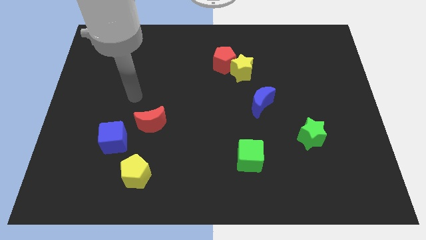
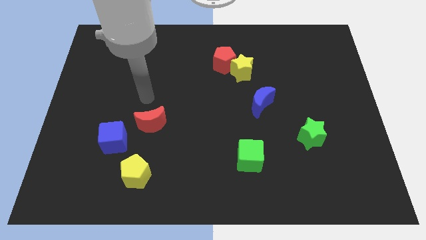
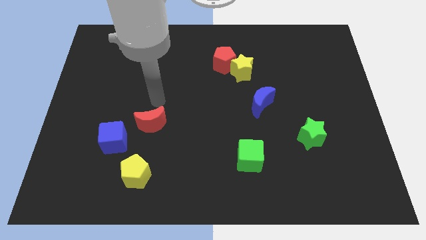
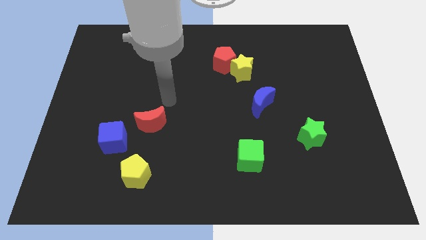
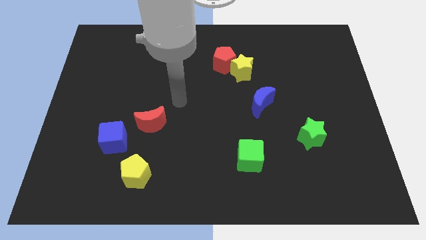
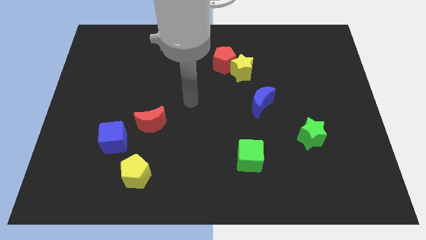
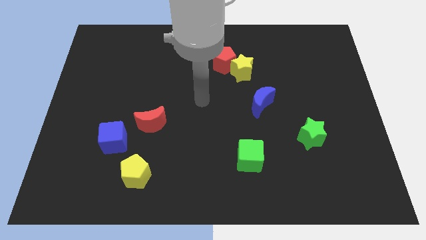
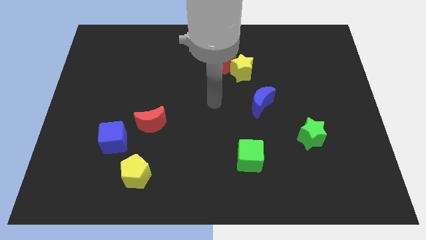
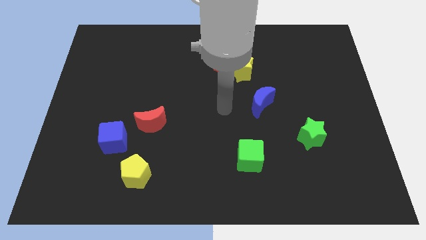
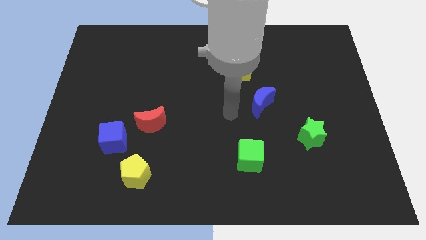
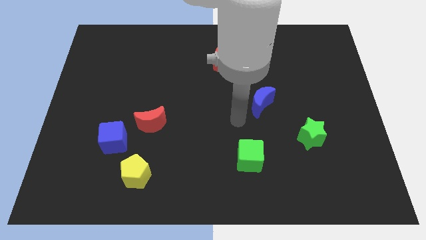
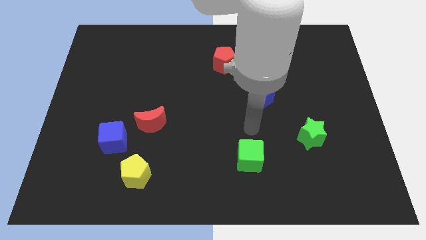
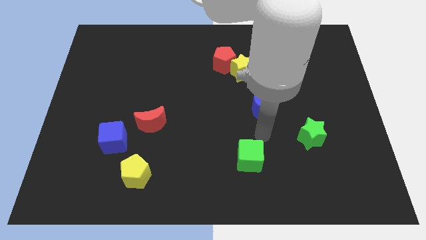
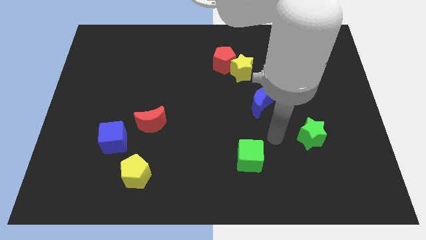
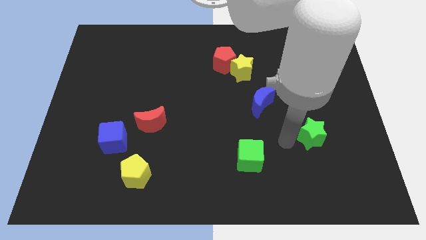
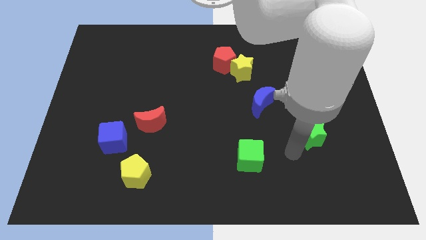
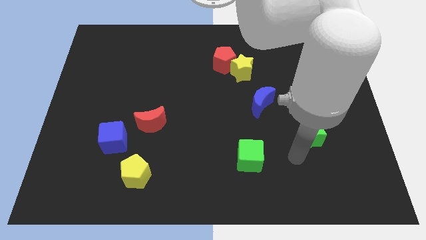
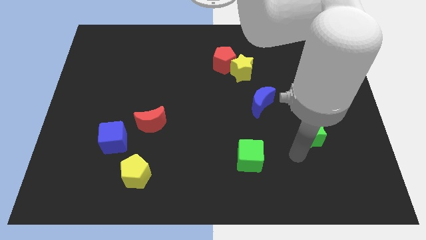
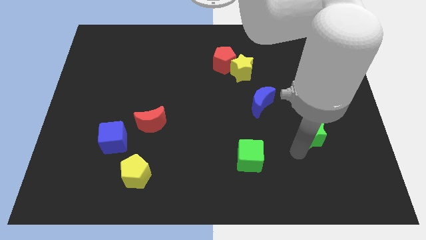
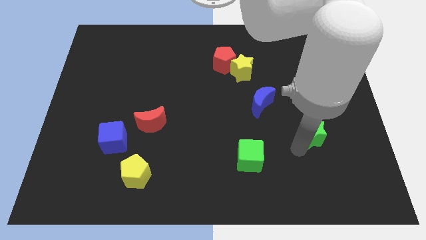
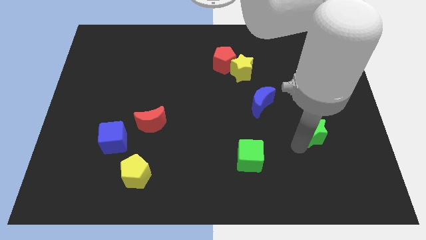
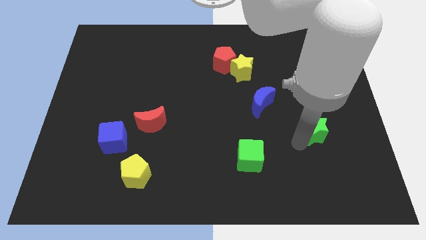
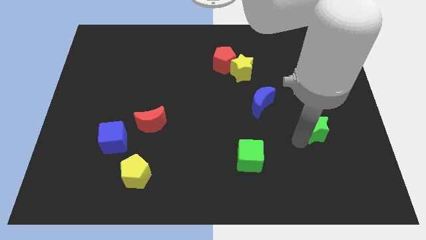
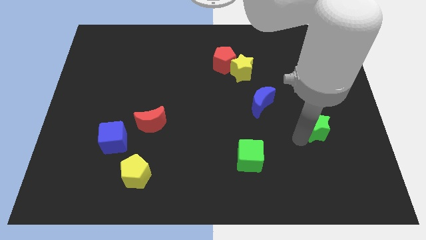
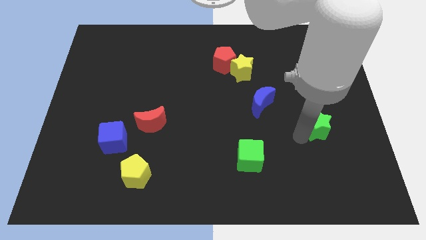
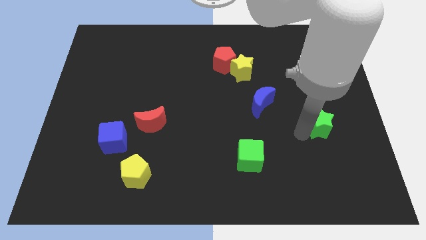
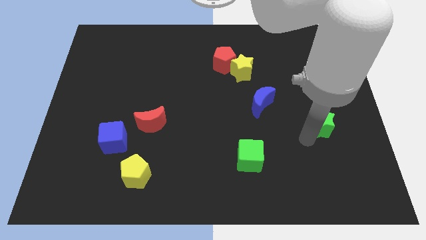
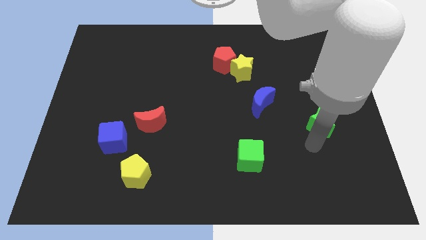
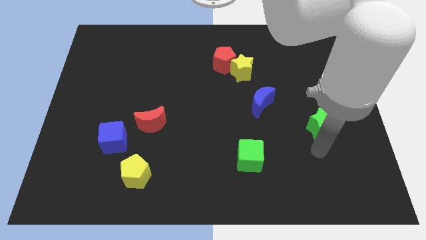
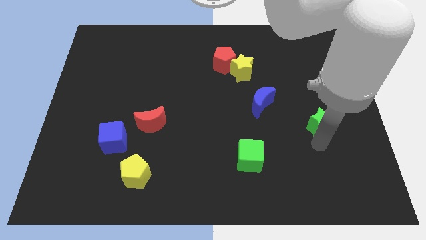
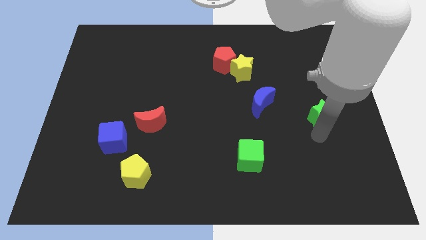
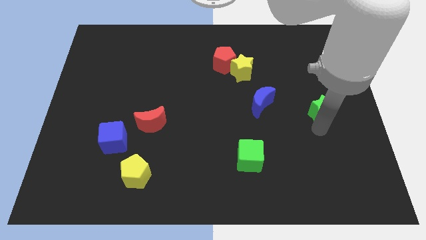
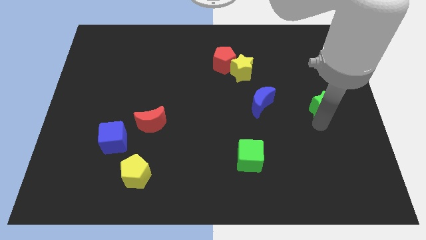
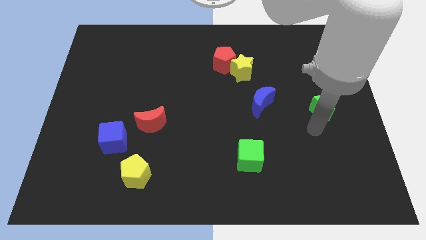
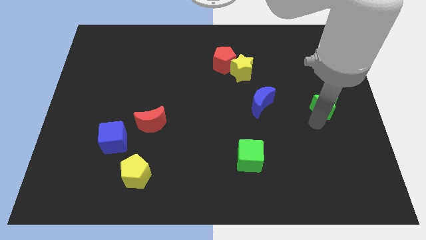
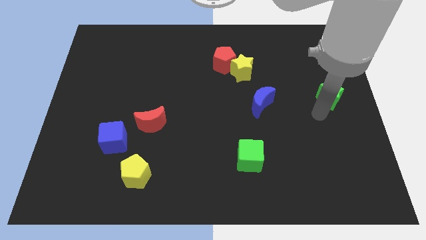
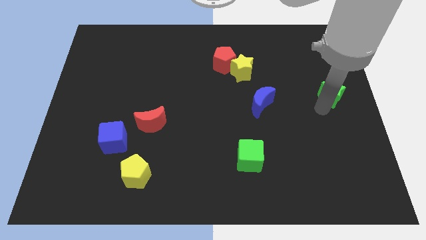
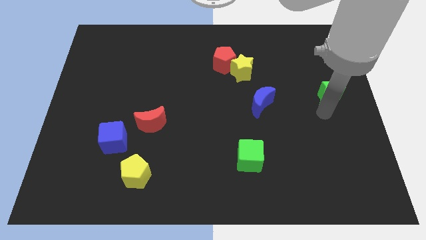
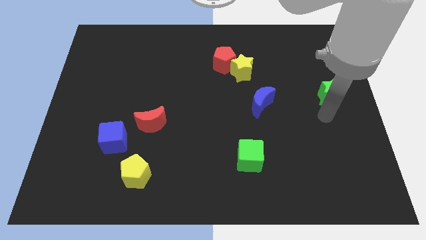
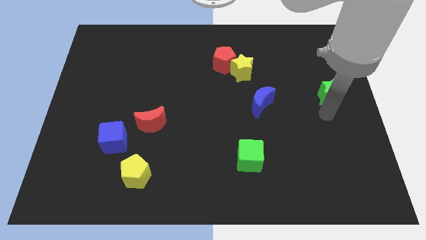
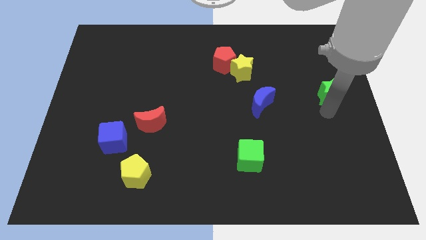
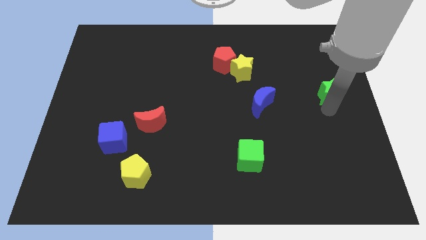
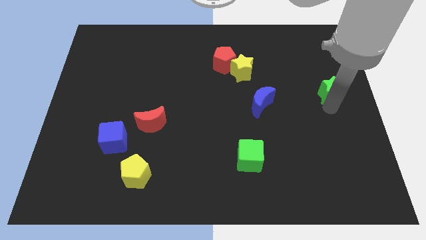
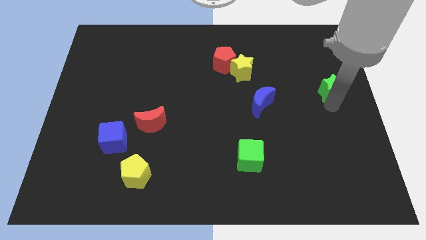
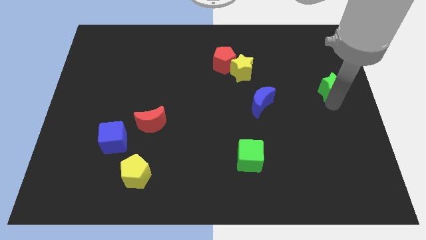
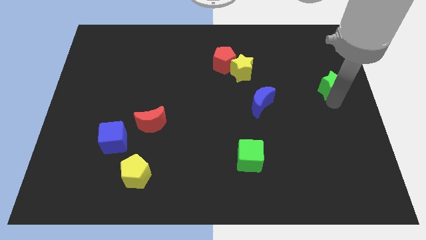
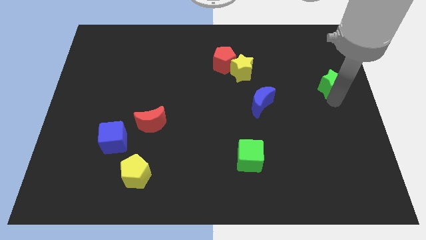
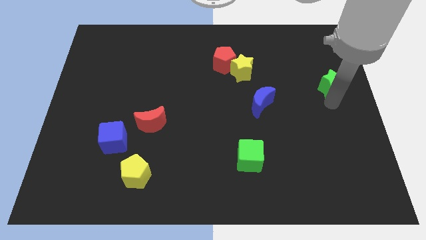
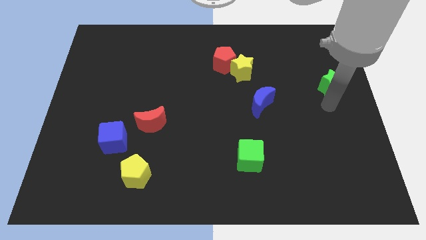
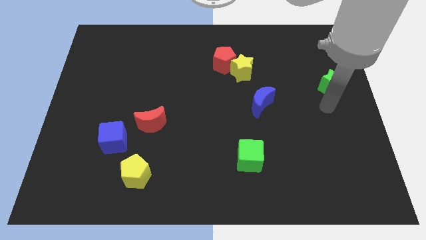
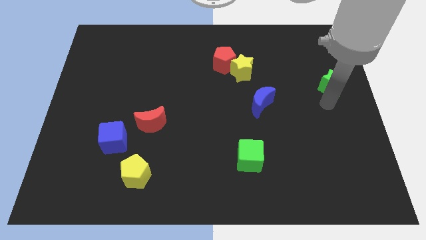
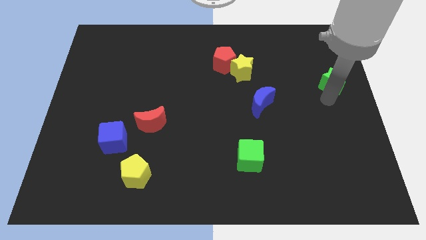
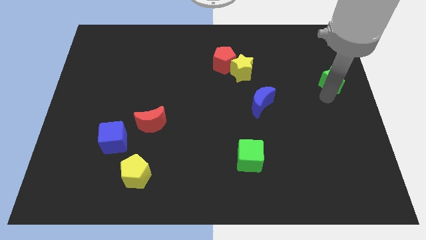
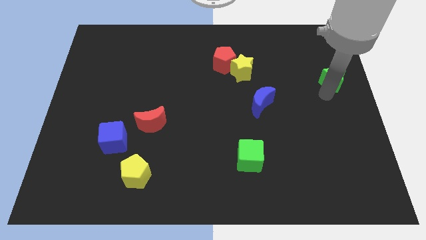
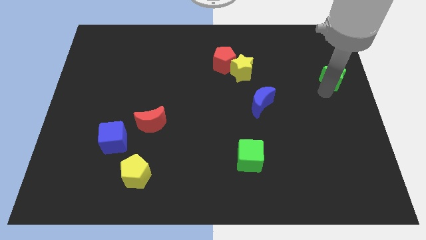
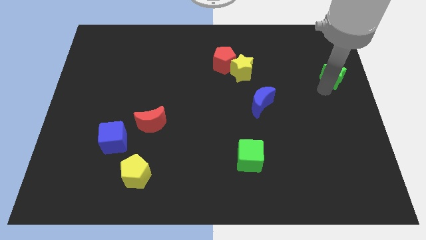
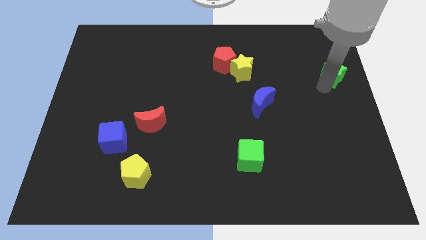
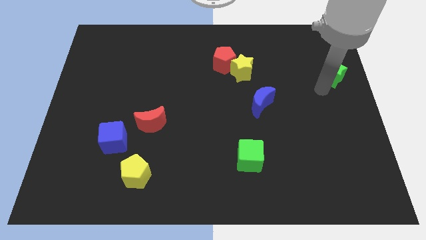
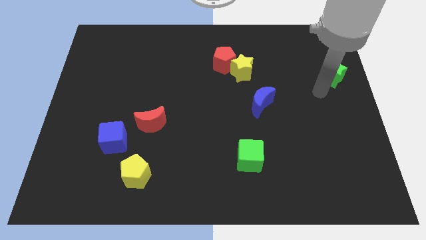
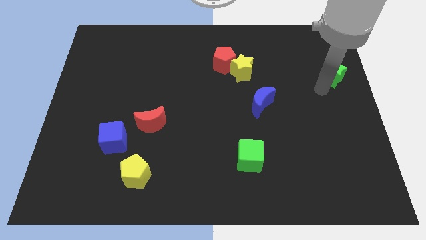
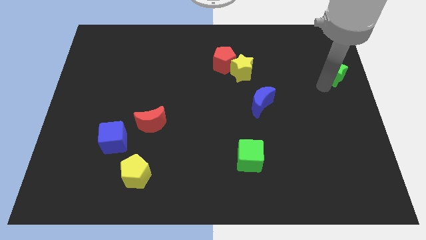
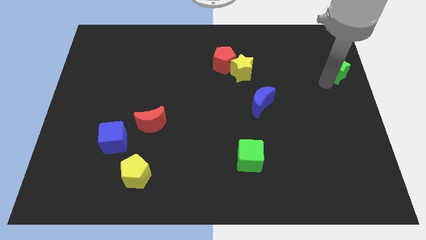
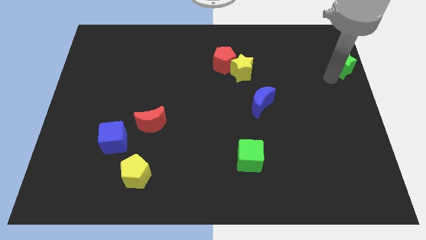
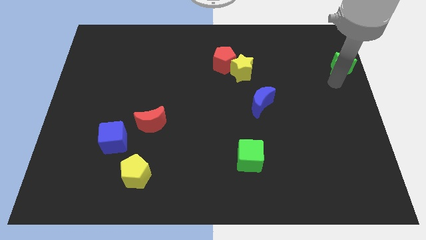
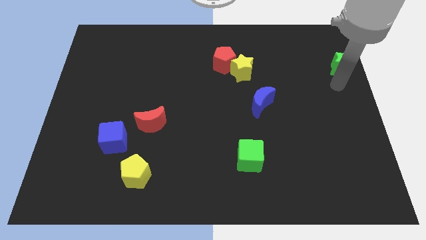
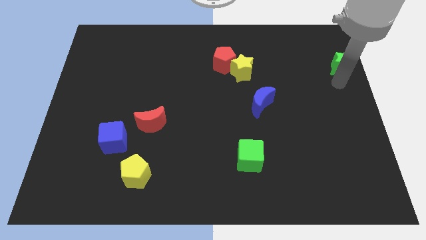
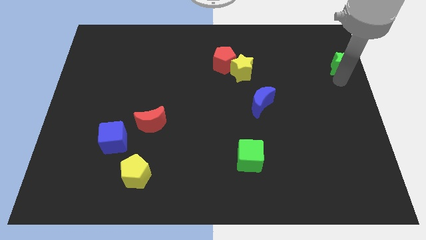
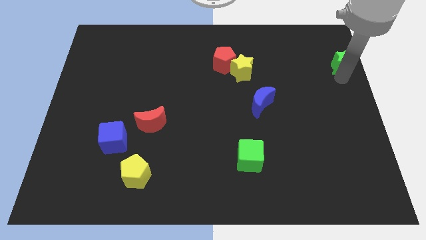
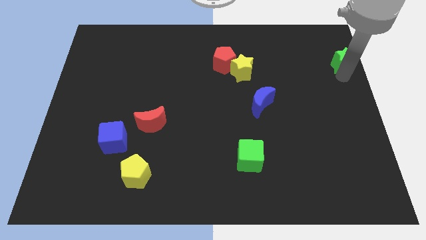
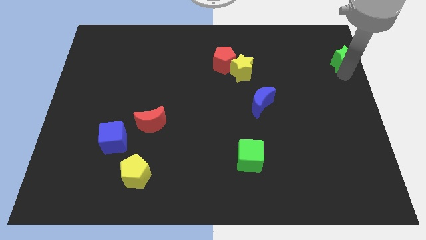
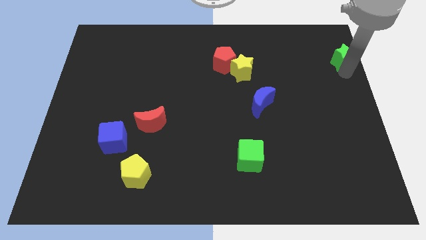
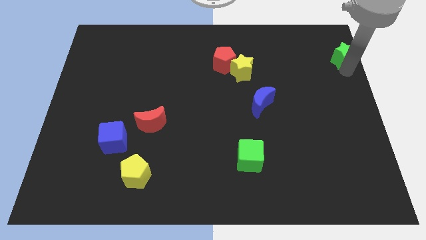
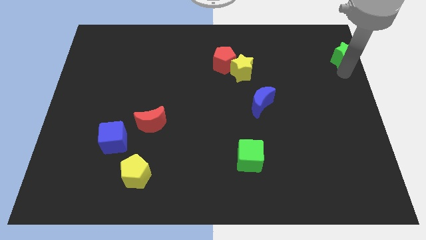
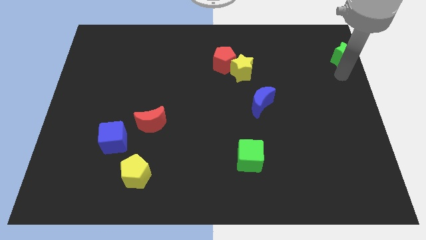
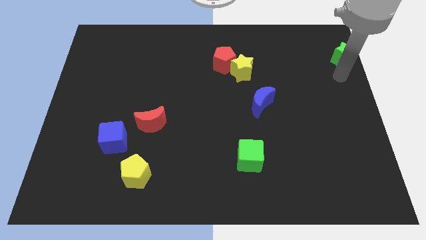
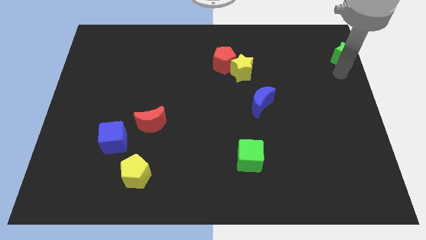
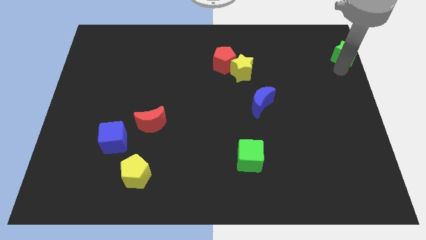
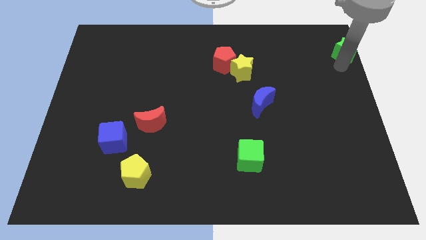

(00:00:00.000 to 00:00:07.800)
move the green star to the upper right corner
